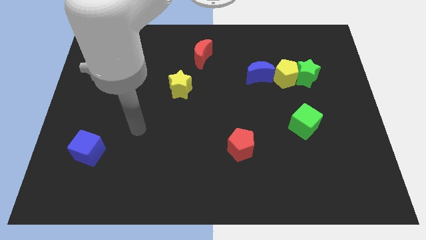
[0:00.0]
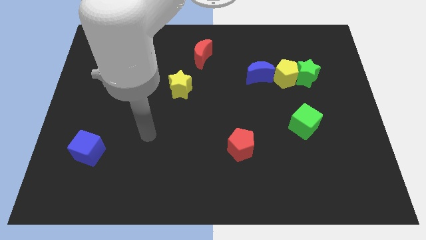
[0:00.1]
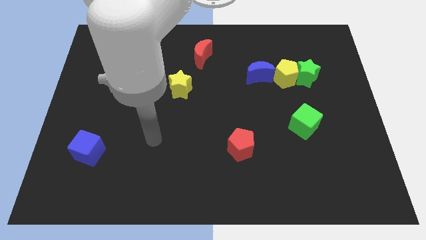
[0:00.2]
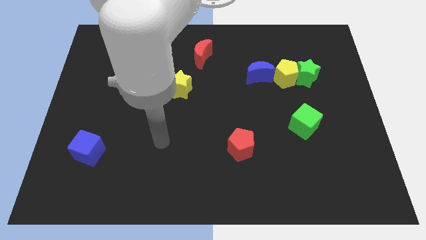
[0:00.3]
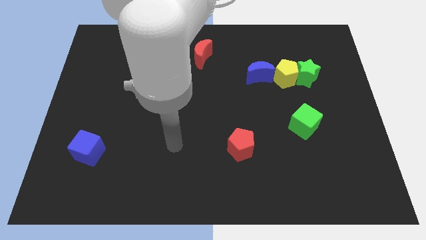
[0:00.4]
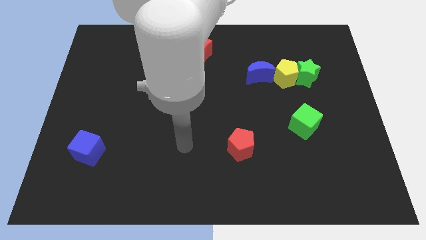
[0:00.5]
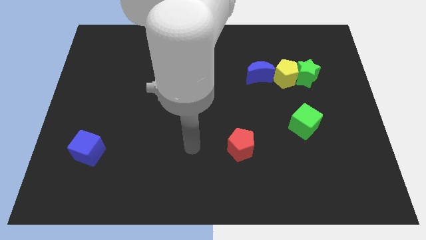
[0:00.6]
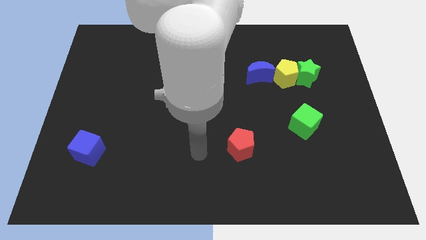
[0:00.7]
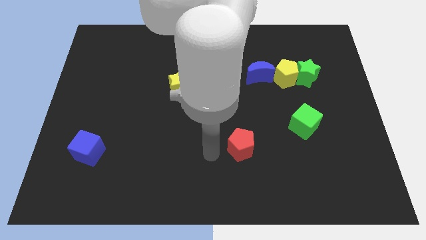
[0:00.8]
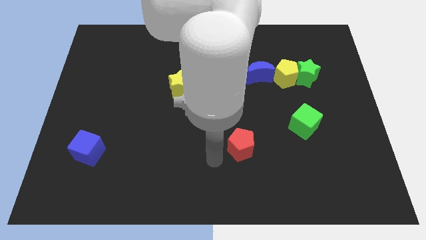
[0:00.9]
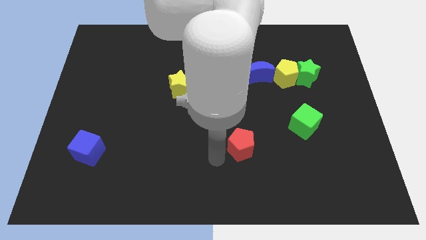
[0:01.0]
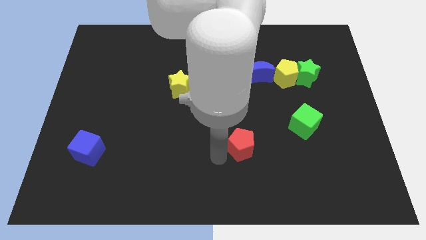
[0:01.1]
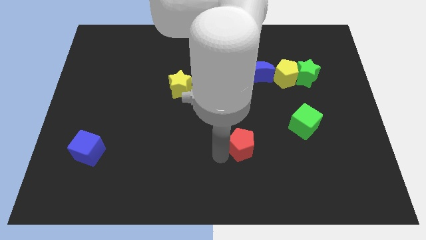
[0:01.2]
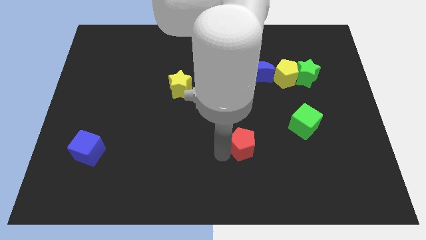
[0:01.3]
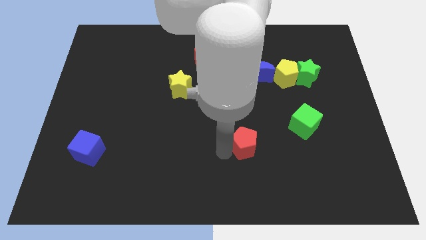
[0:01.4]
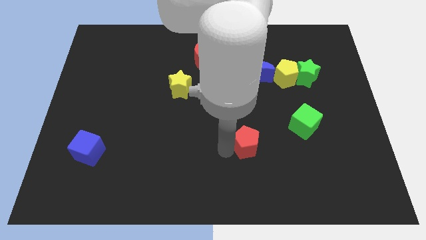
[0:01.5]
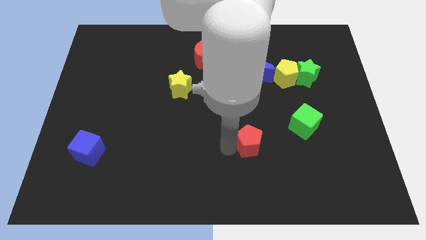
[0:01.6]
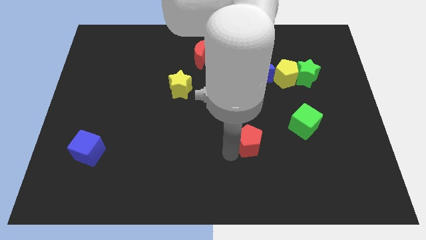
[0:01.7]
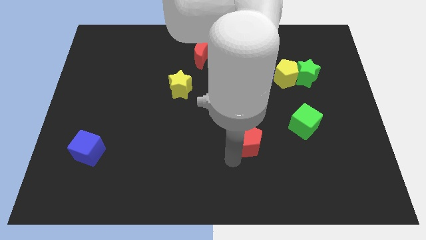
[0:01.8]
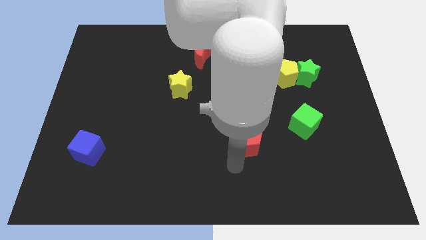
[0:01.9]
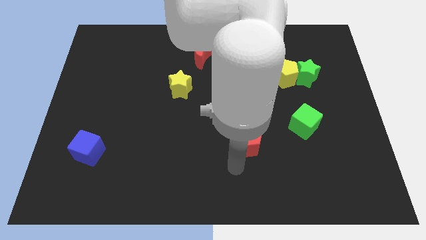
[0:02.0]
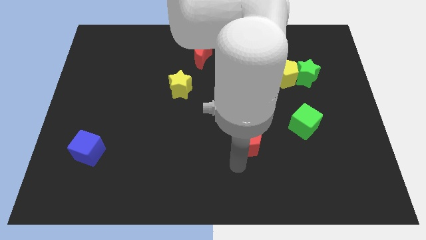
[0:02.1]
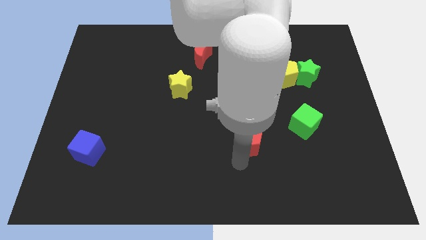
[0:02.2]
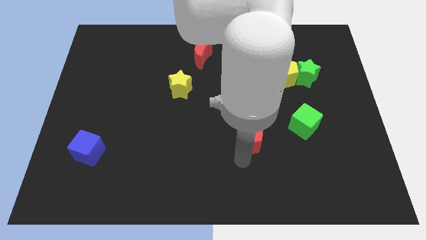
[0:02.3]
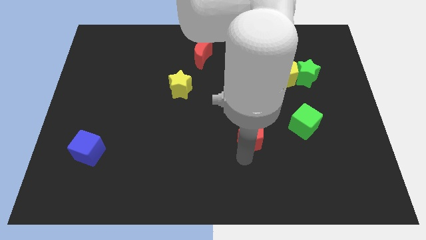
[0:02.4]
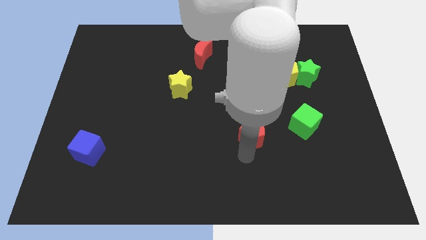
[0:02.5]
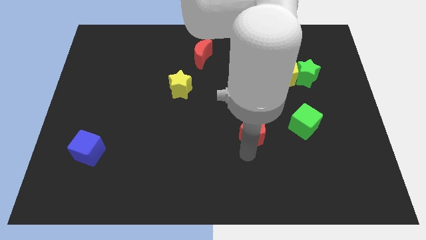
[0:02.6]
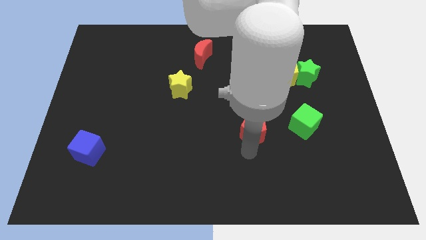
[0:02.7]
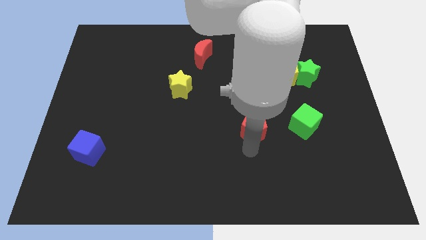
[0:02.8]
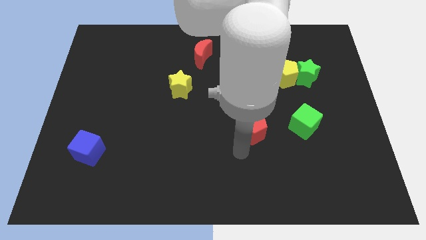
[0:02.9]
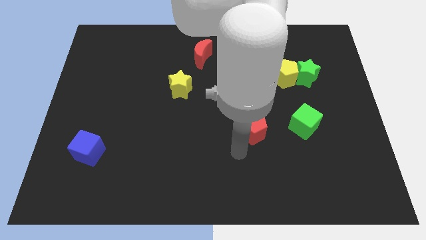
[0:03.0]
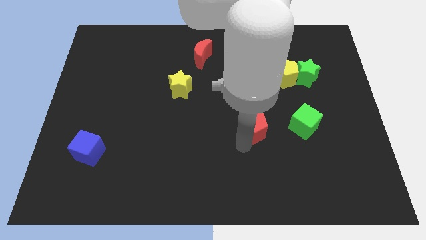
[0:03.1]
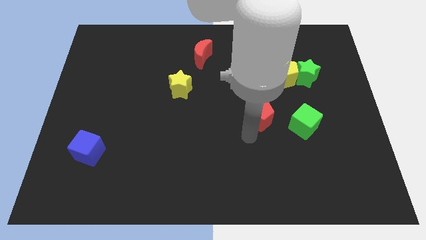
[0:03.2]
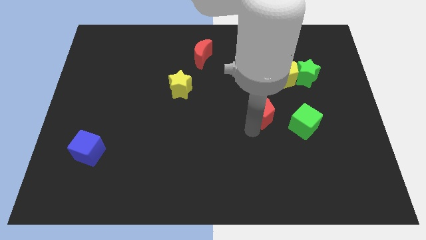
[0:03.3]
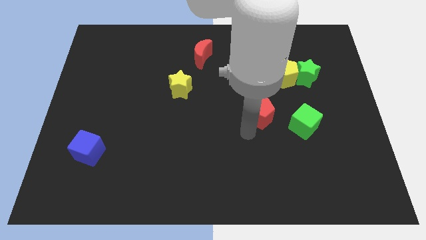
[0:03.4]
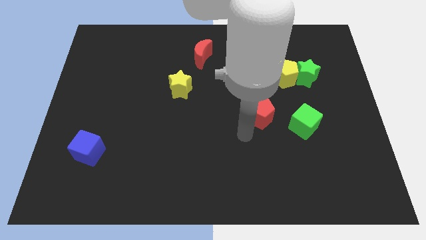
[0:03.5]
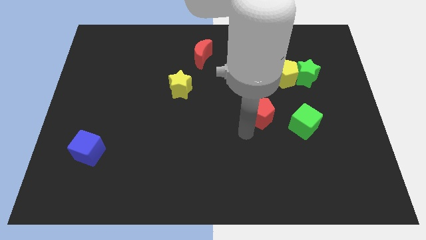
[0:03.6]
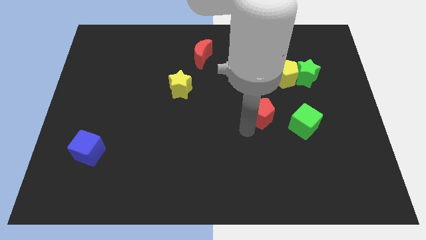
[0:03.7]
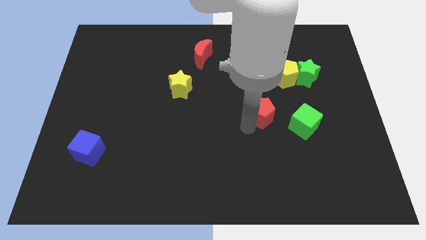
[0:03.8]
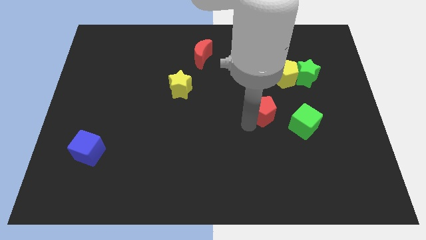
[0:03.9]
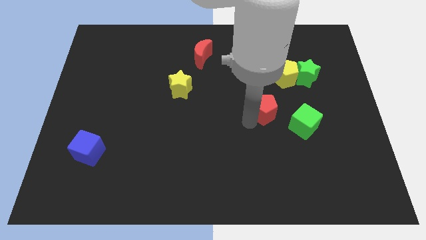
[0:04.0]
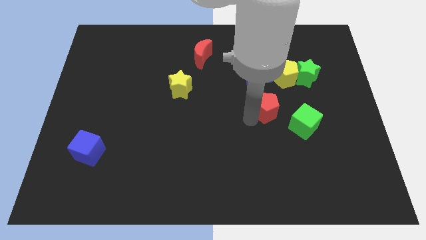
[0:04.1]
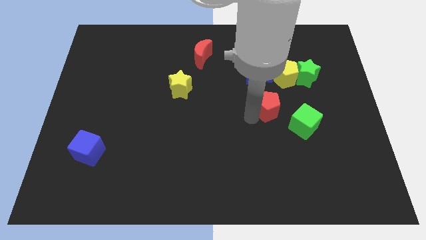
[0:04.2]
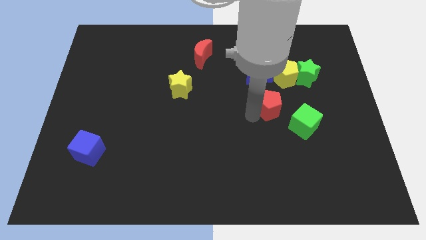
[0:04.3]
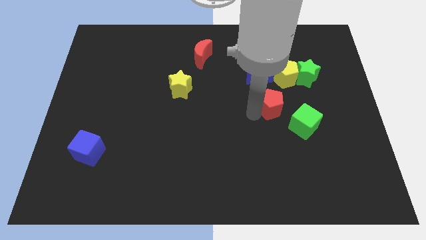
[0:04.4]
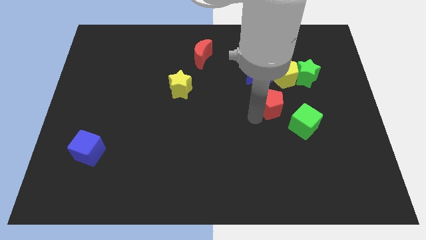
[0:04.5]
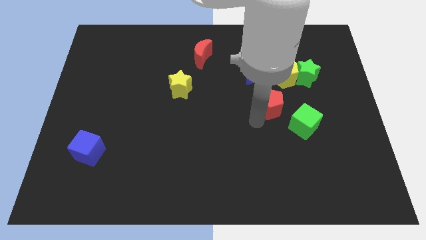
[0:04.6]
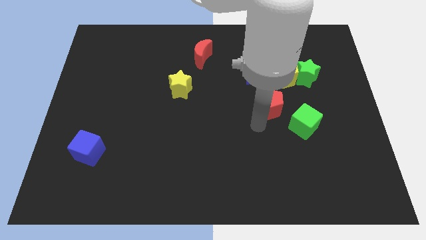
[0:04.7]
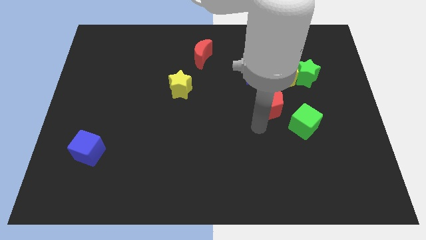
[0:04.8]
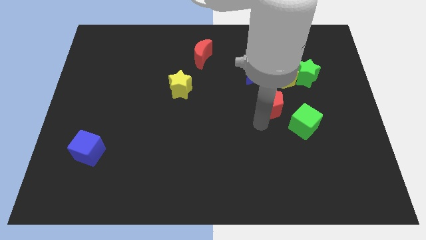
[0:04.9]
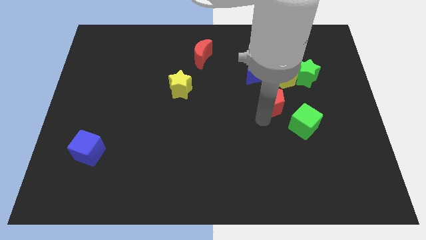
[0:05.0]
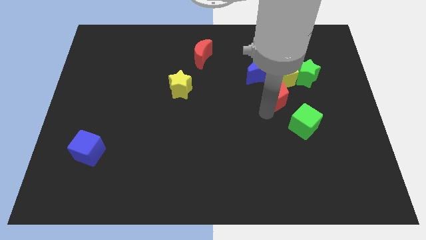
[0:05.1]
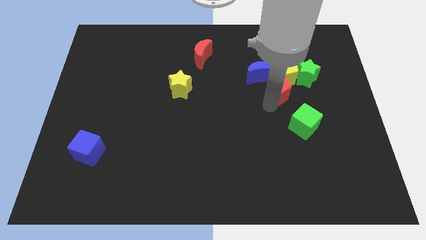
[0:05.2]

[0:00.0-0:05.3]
slide the red pentagon next to the yellow pentagon

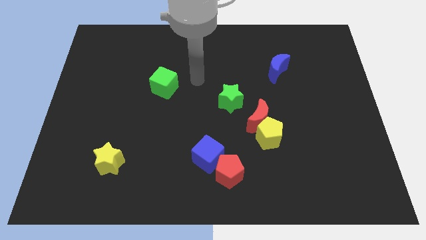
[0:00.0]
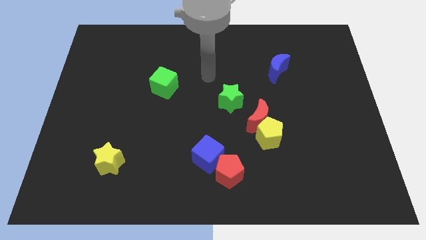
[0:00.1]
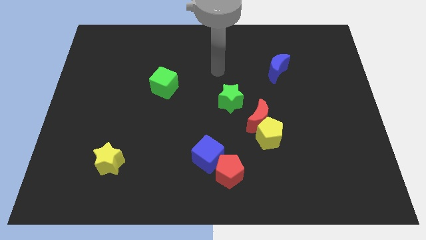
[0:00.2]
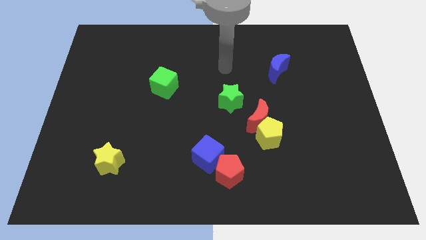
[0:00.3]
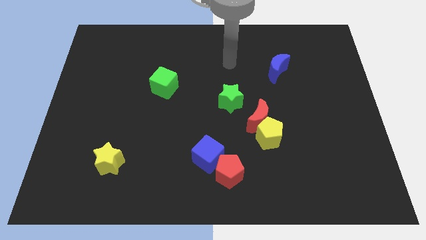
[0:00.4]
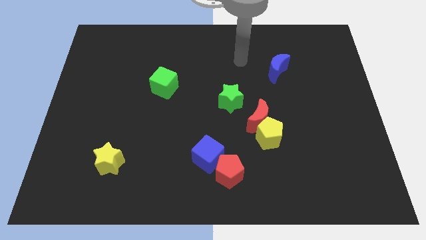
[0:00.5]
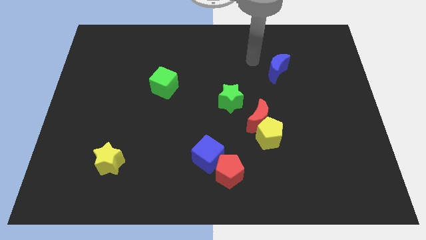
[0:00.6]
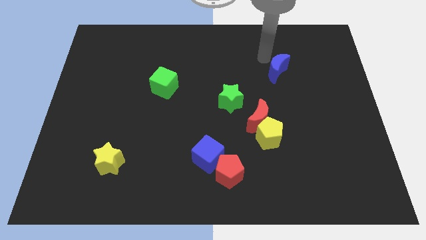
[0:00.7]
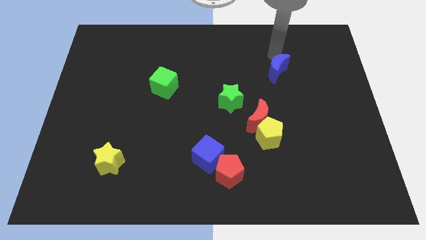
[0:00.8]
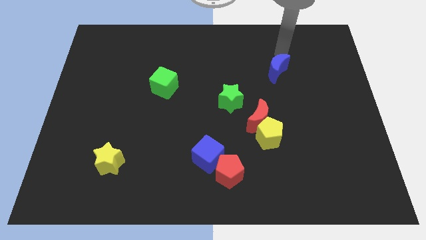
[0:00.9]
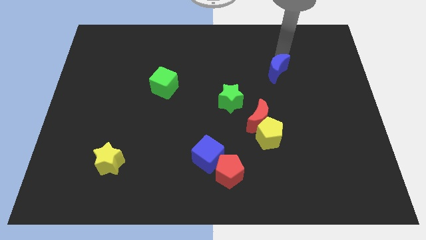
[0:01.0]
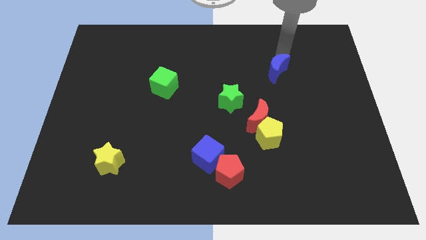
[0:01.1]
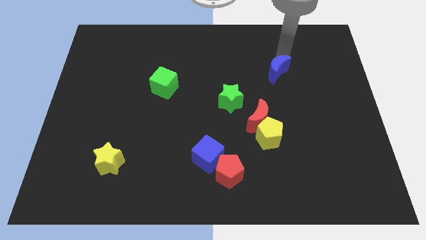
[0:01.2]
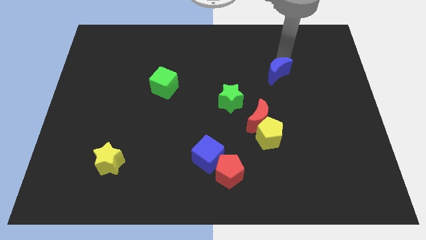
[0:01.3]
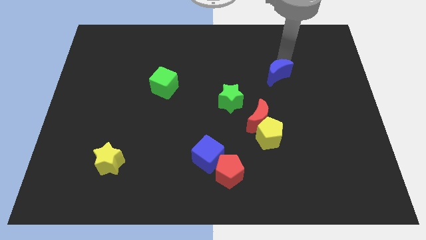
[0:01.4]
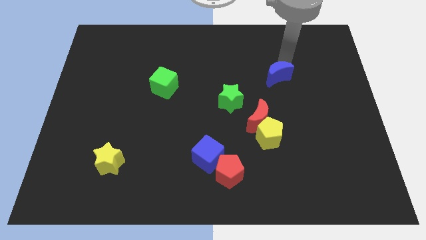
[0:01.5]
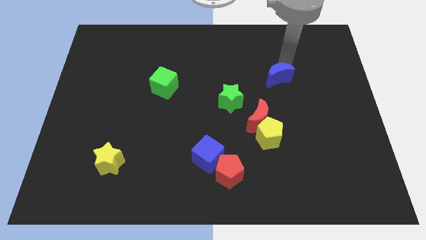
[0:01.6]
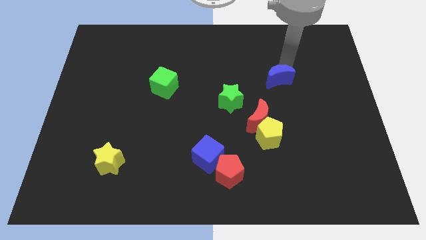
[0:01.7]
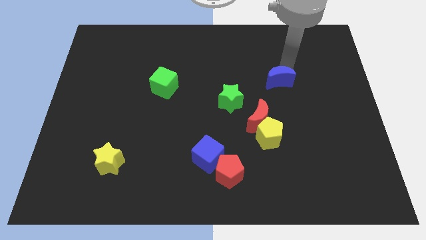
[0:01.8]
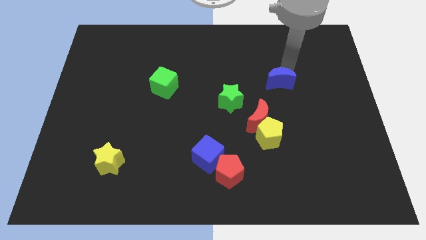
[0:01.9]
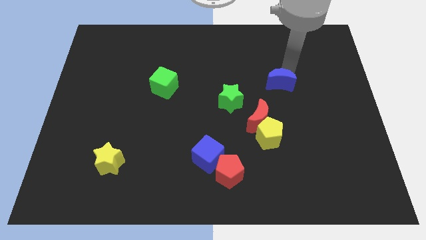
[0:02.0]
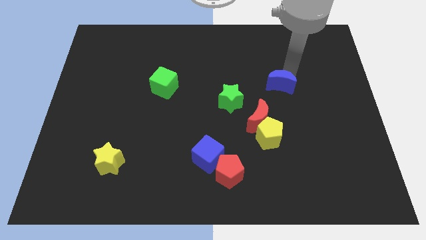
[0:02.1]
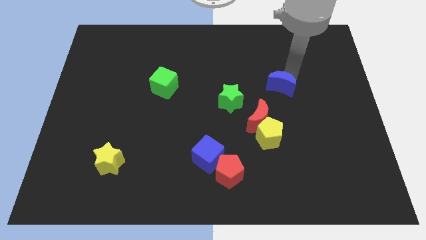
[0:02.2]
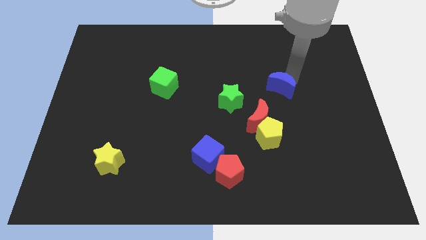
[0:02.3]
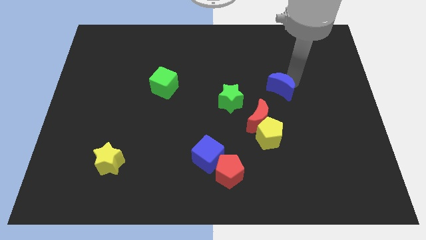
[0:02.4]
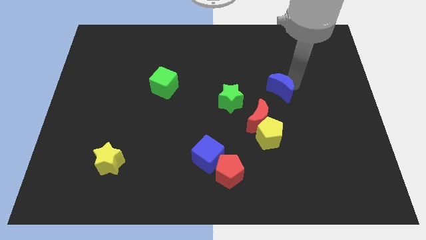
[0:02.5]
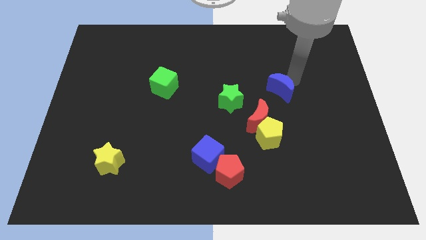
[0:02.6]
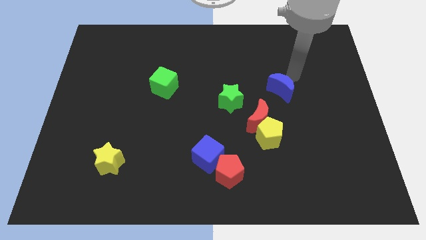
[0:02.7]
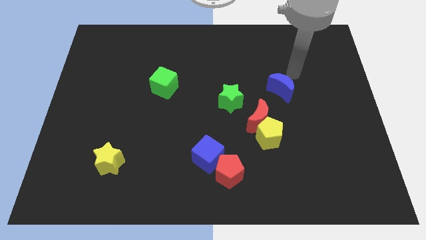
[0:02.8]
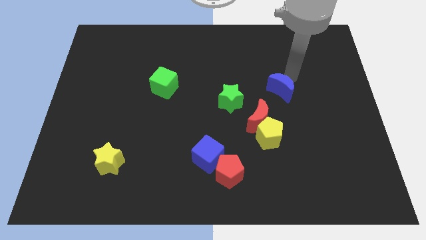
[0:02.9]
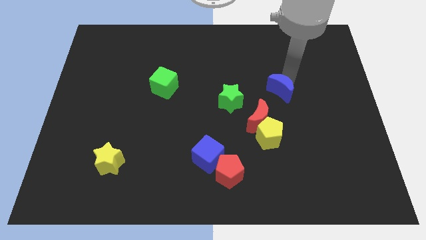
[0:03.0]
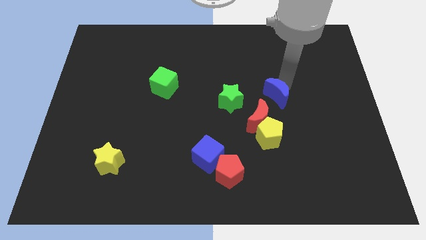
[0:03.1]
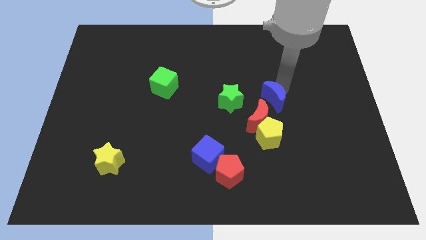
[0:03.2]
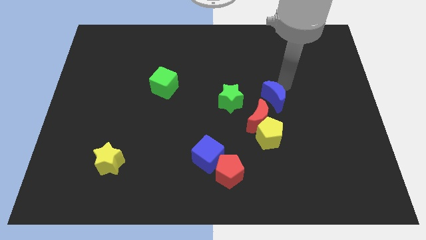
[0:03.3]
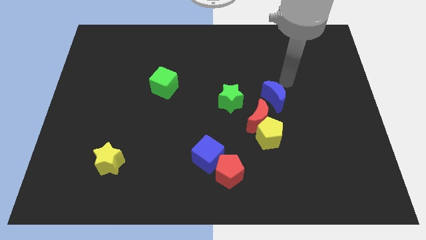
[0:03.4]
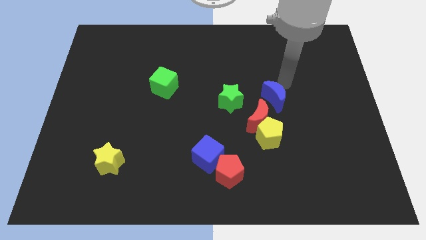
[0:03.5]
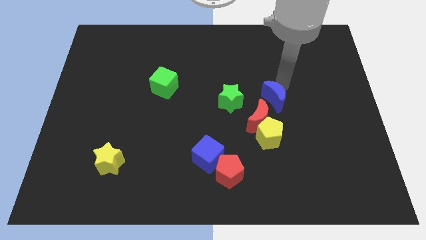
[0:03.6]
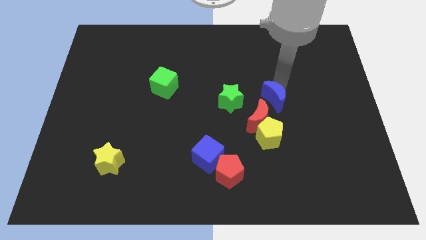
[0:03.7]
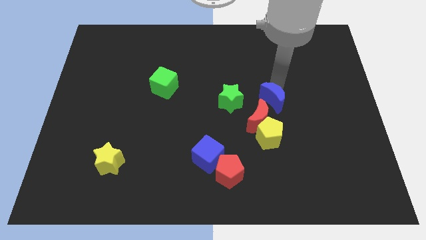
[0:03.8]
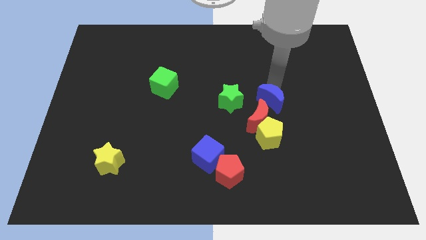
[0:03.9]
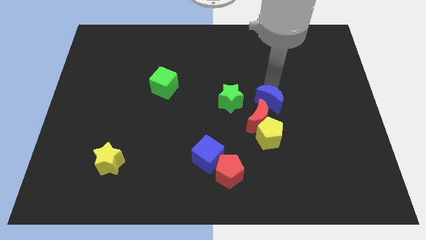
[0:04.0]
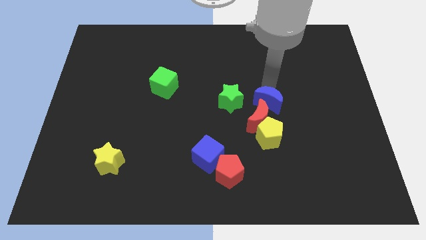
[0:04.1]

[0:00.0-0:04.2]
slide the blue moon to the red moon
